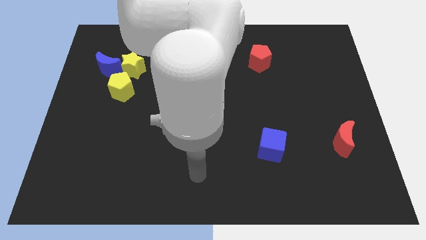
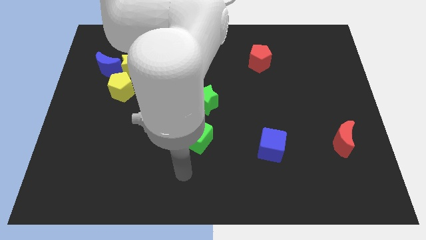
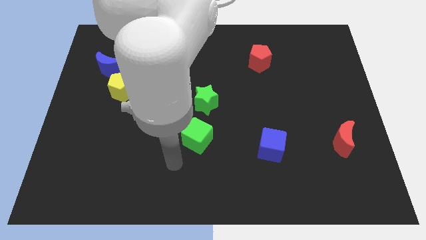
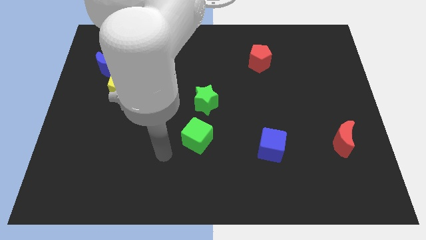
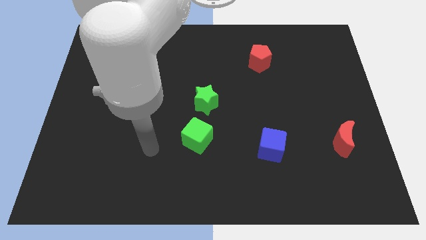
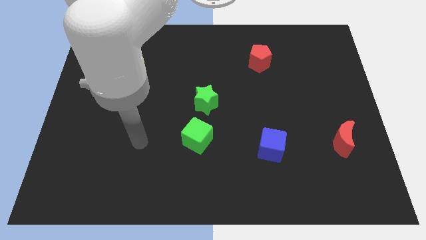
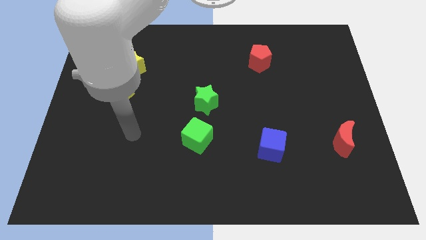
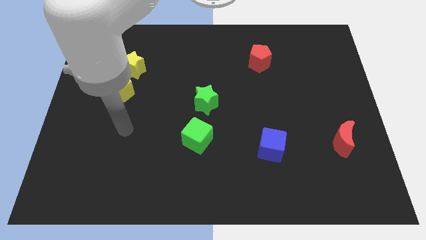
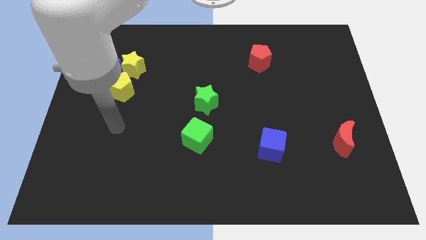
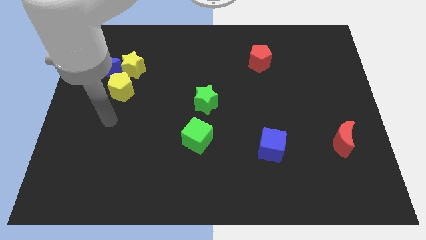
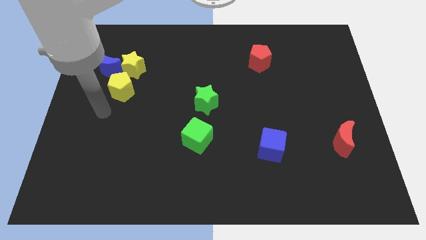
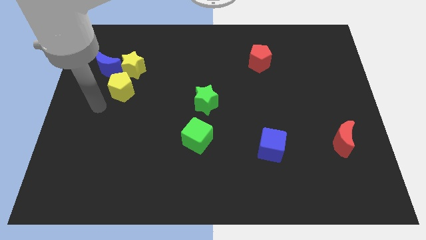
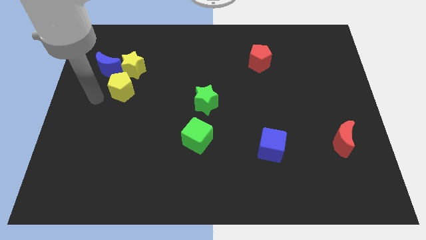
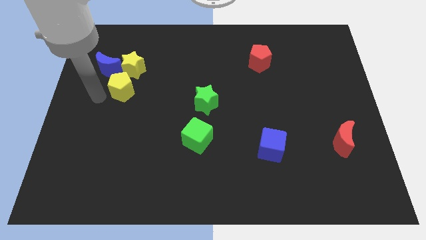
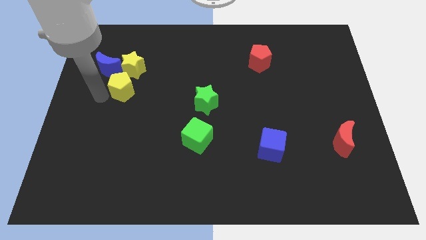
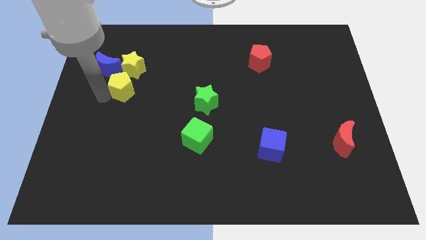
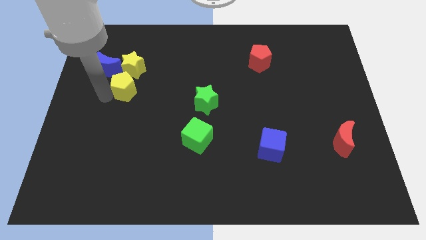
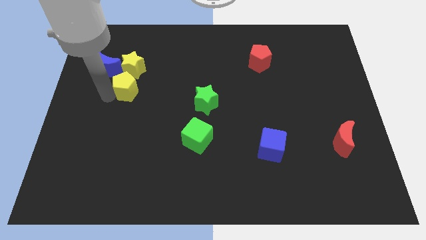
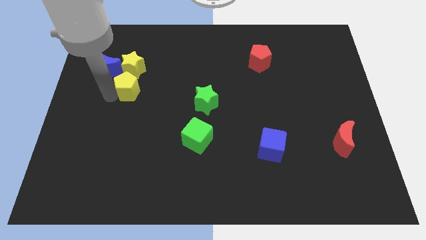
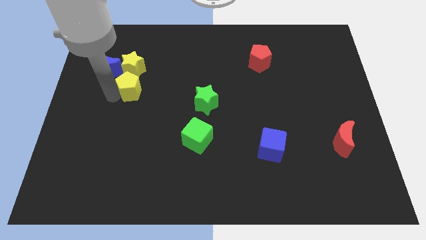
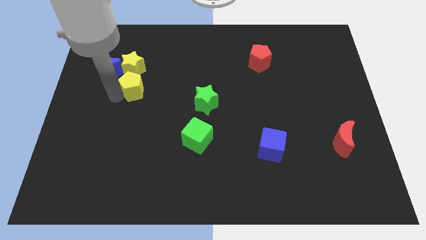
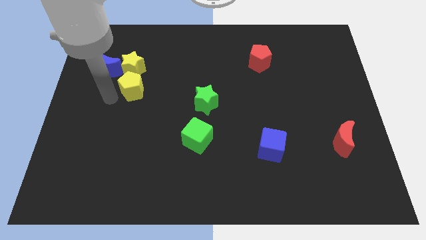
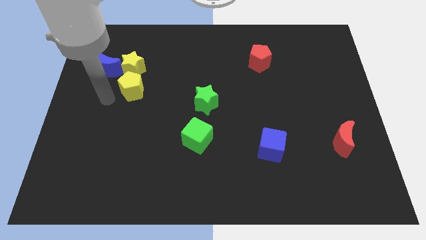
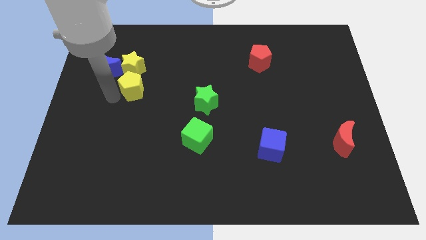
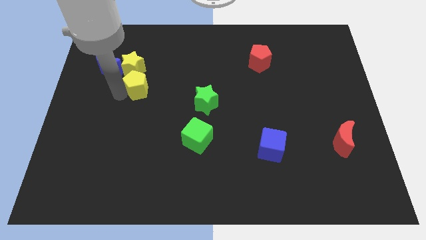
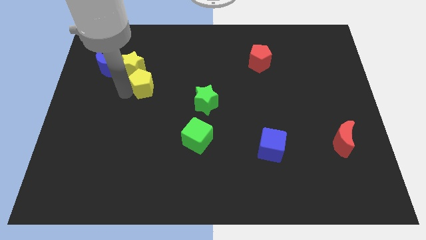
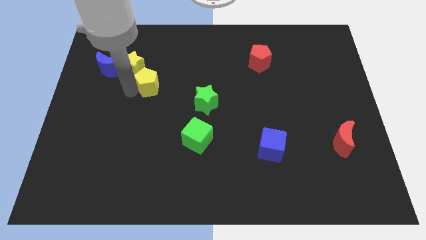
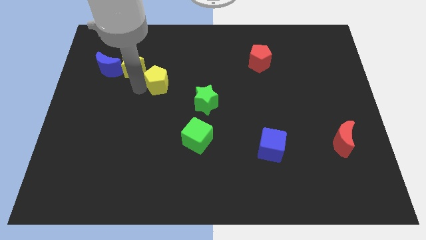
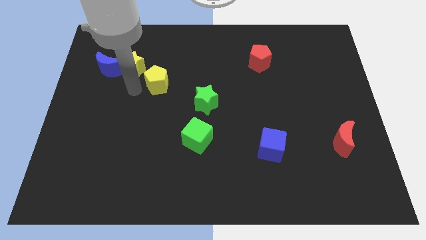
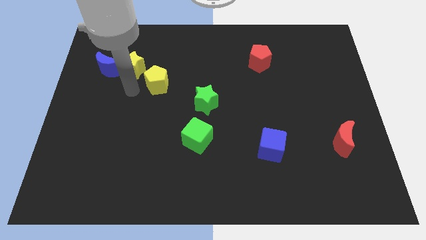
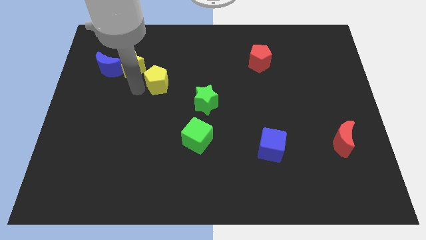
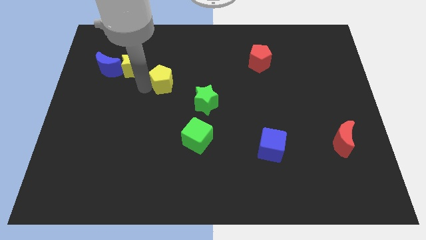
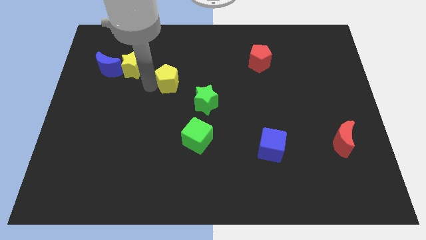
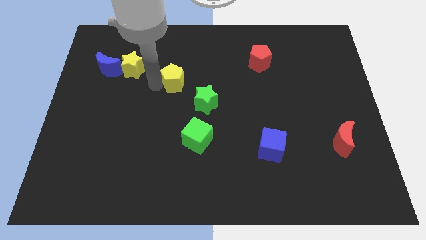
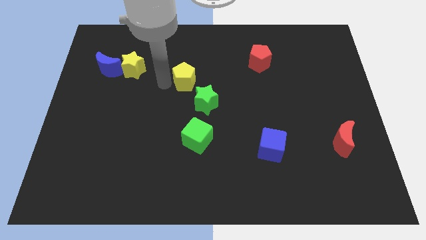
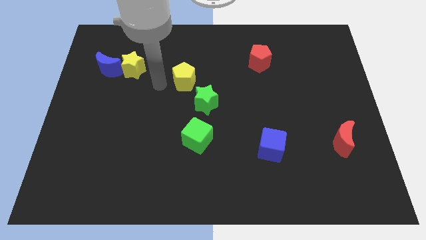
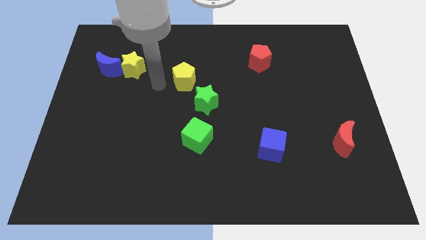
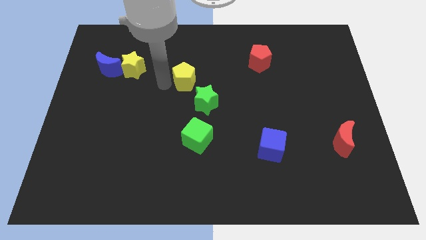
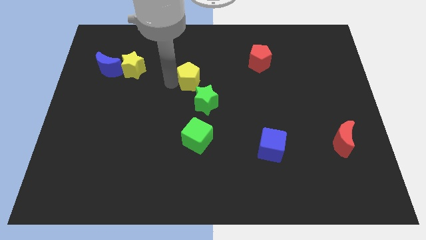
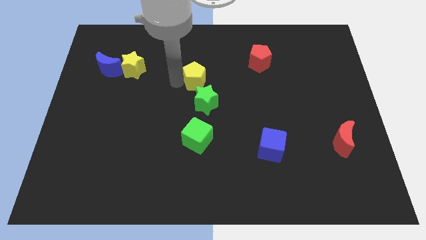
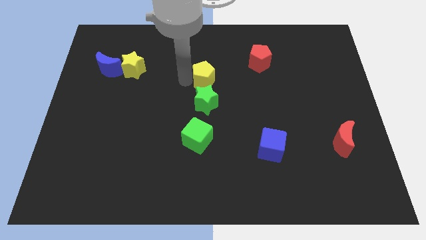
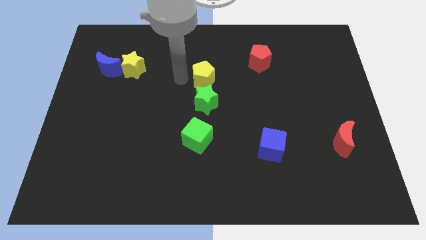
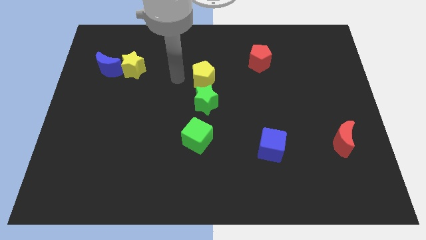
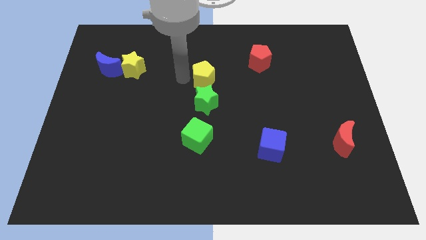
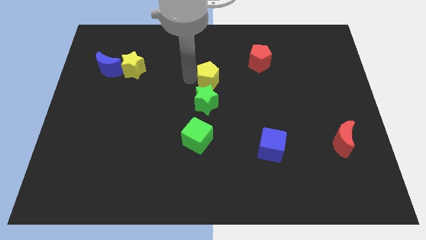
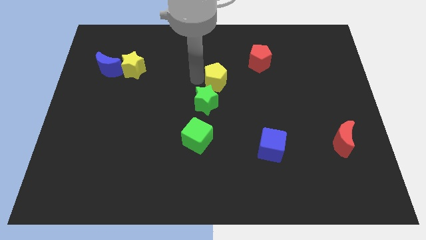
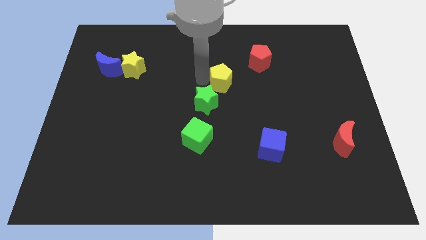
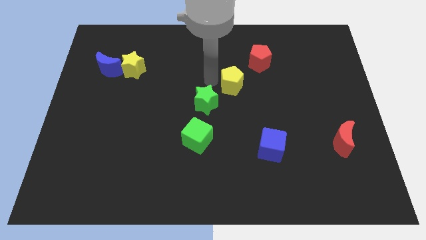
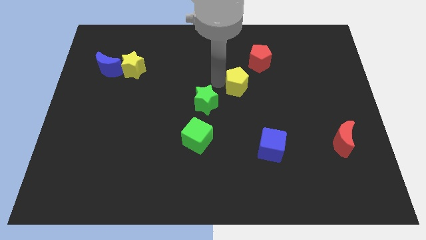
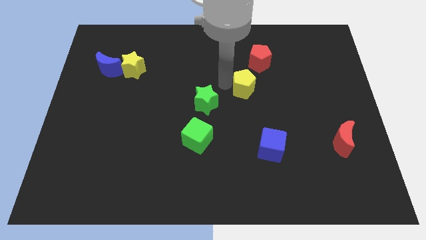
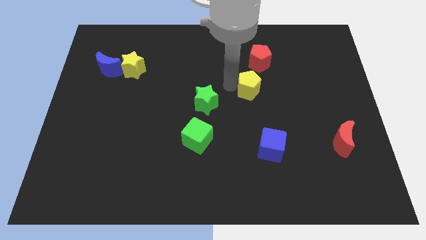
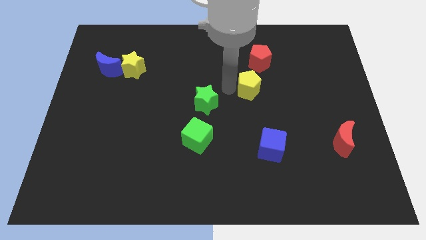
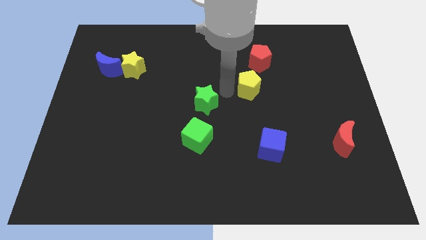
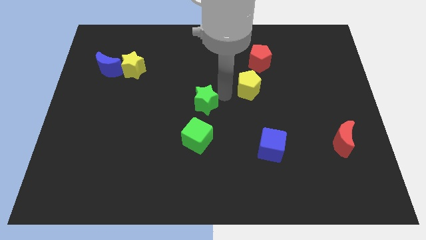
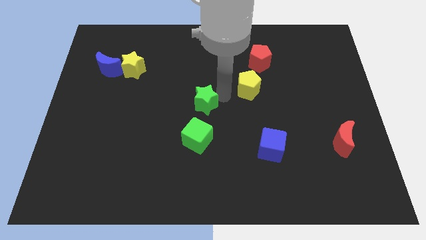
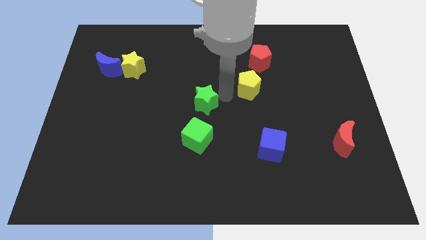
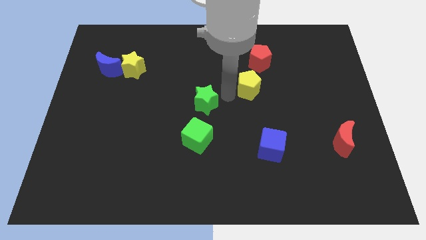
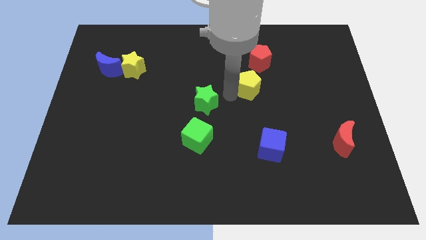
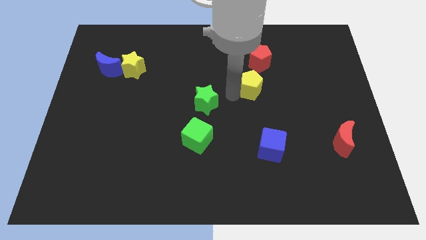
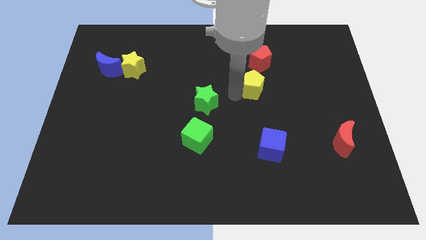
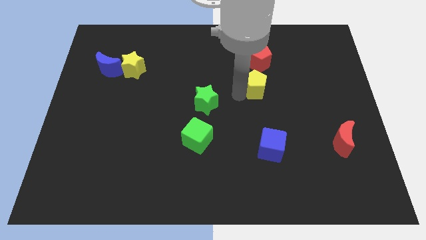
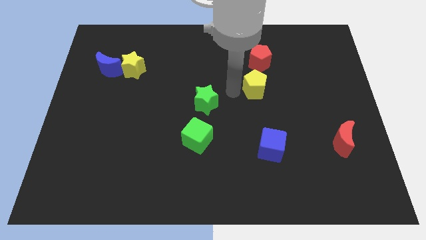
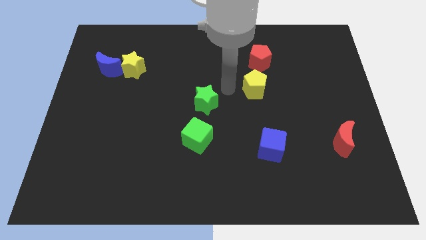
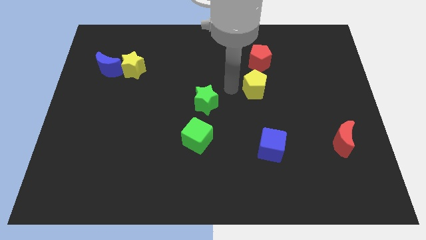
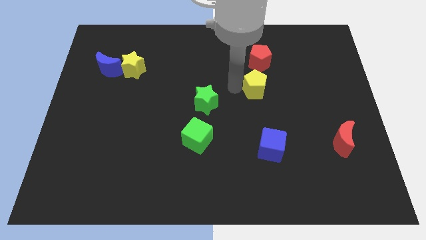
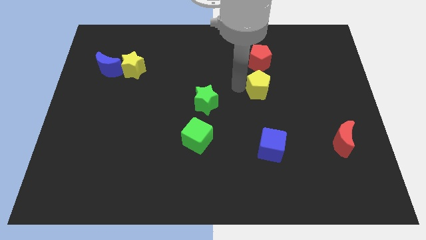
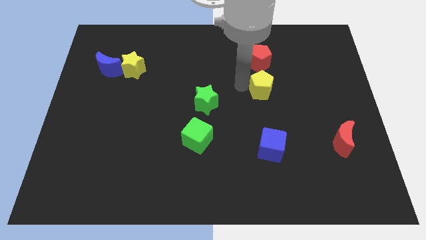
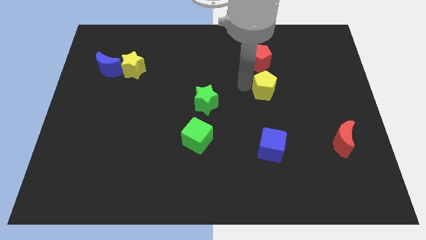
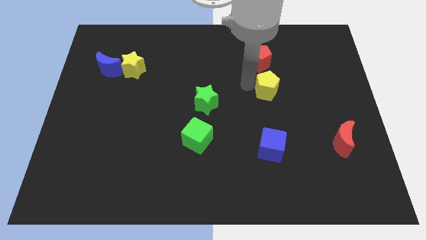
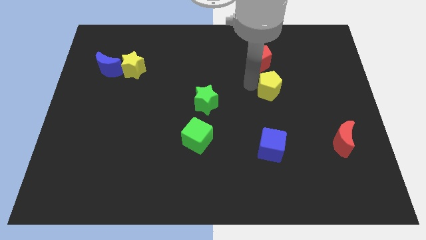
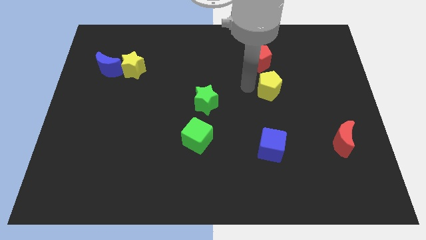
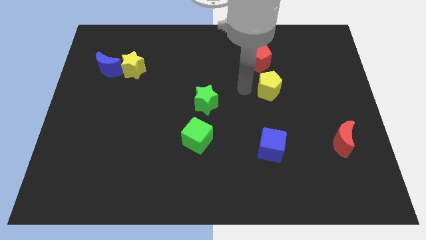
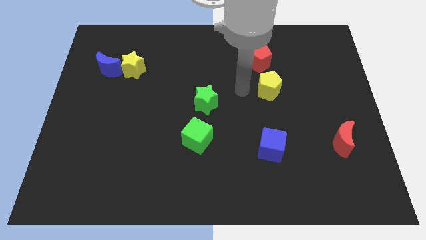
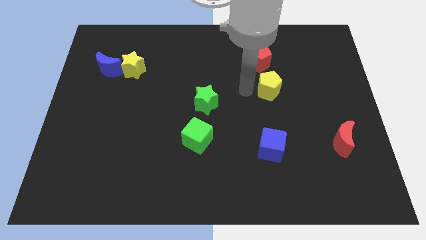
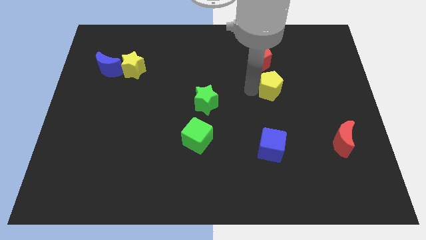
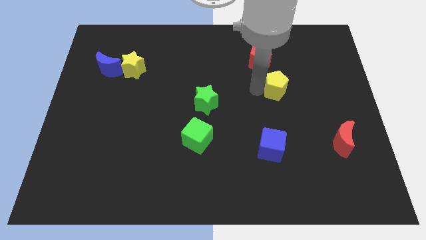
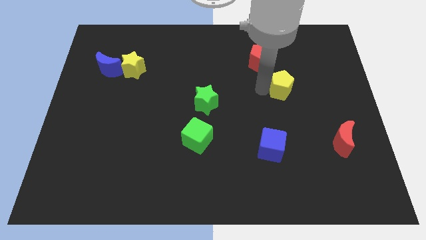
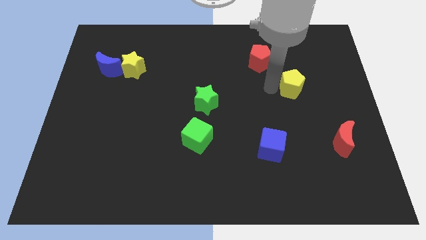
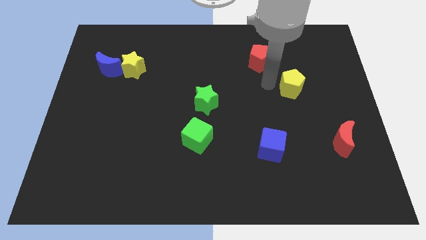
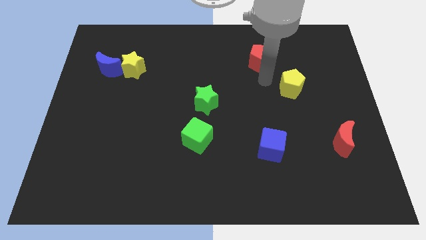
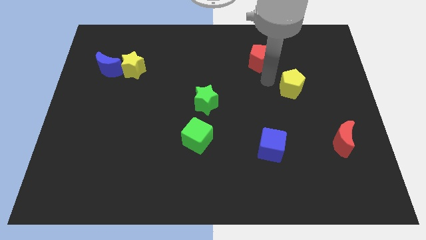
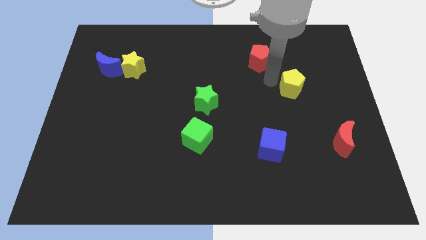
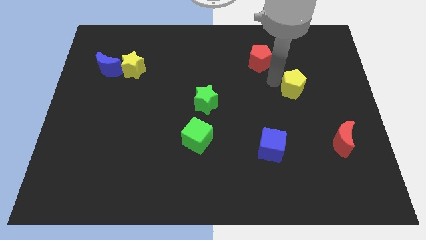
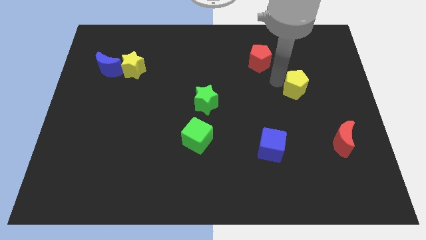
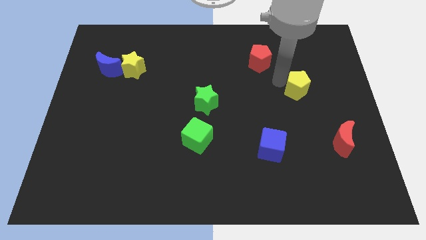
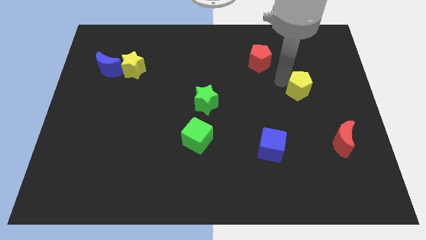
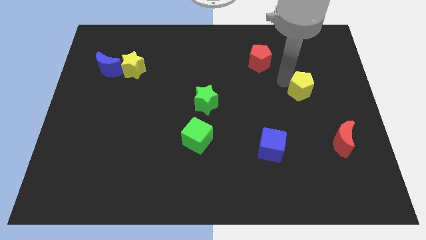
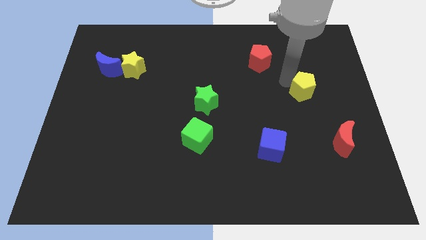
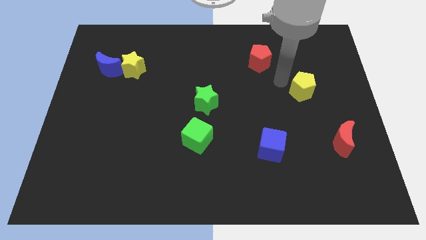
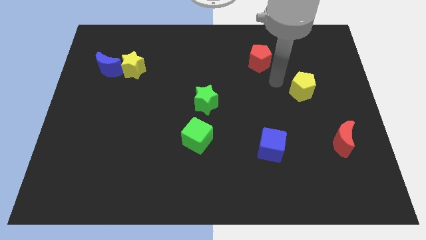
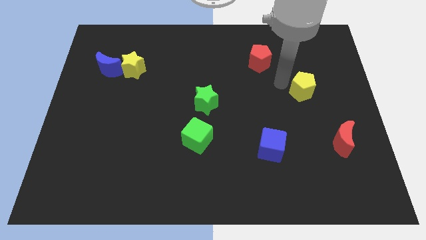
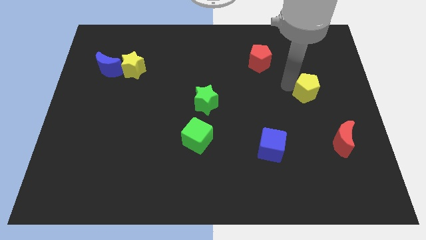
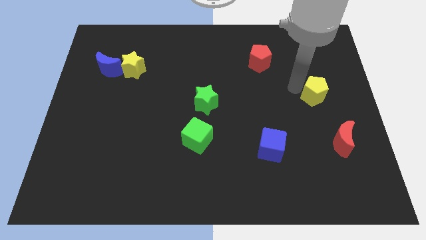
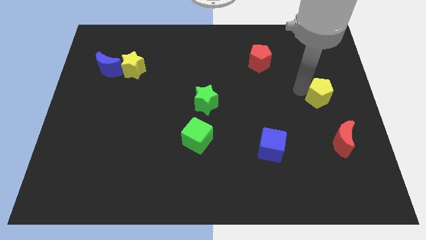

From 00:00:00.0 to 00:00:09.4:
move the yellow pentagon to the right side
